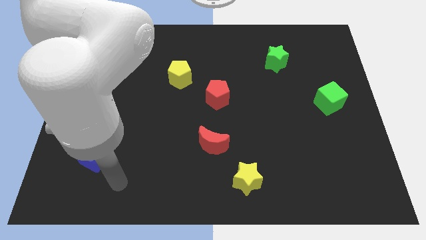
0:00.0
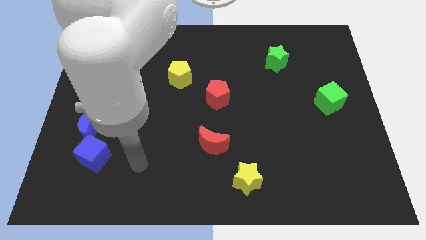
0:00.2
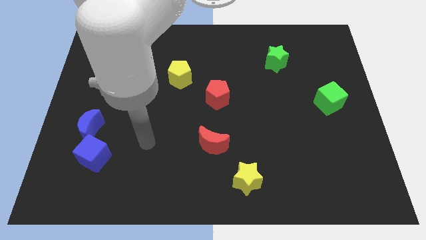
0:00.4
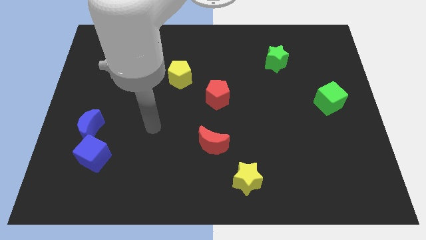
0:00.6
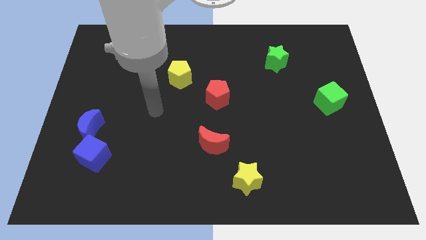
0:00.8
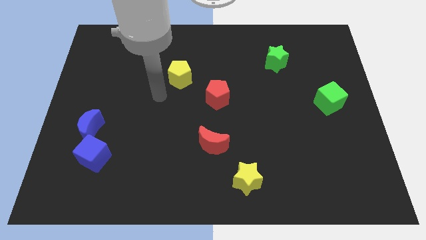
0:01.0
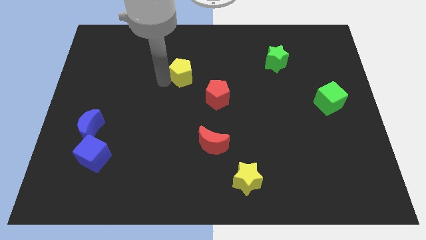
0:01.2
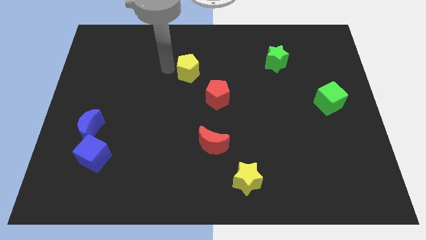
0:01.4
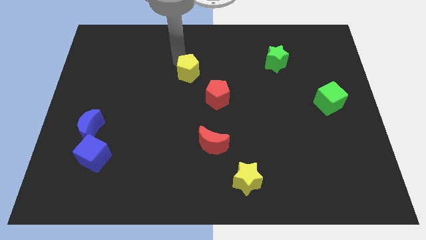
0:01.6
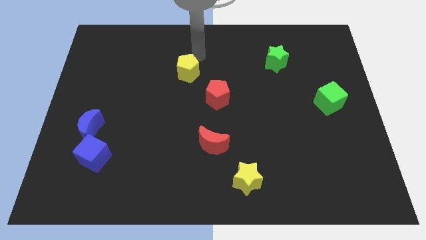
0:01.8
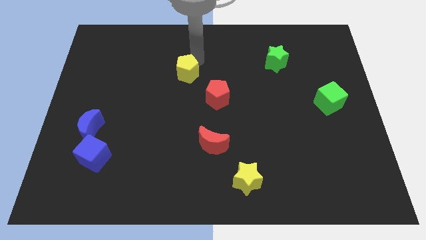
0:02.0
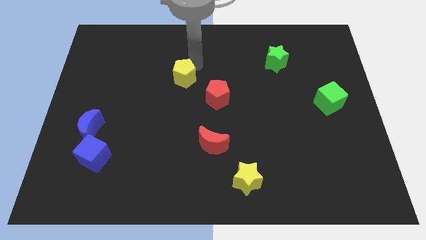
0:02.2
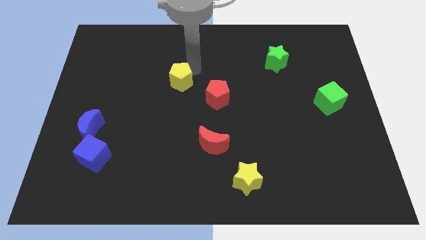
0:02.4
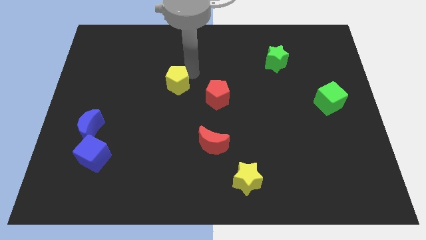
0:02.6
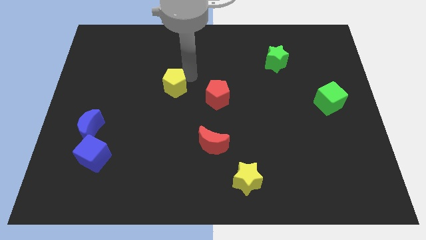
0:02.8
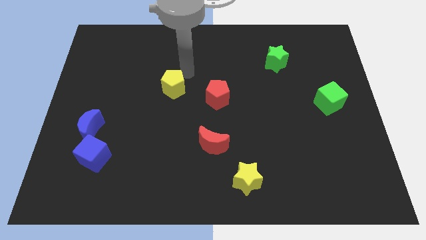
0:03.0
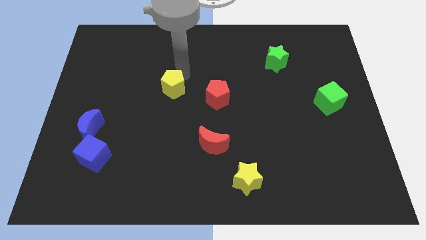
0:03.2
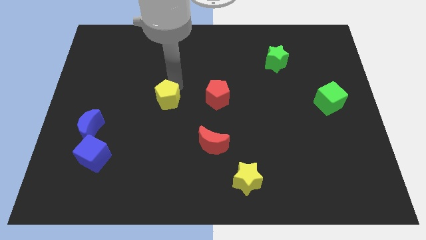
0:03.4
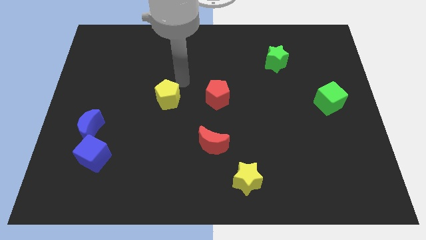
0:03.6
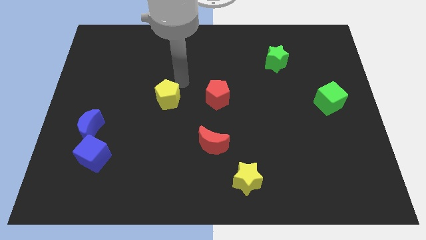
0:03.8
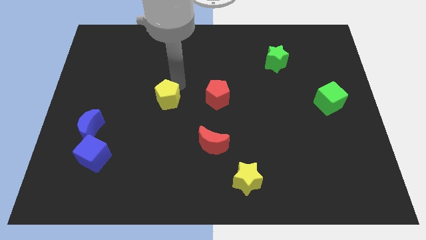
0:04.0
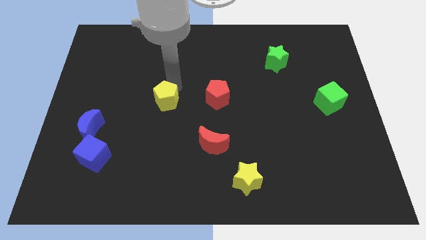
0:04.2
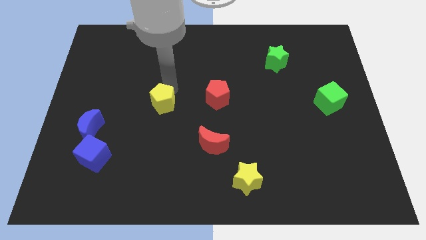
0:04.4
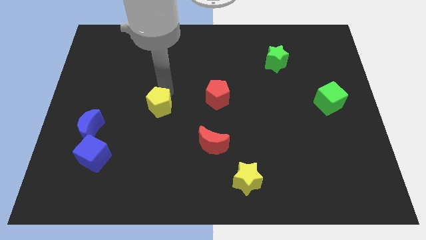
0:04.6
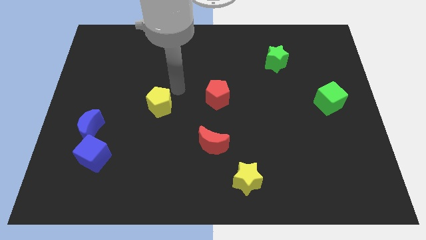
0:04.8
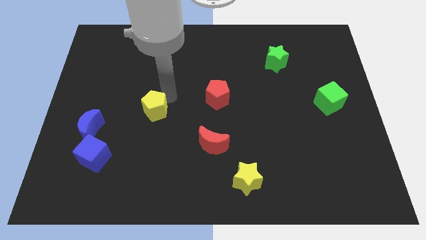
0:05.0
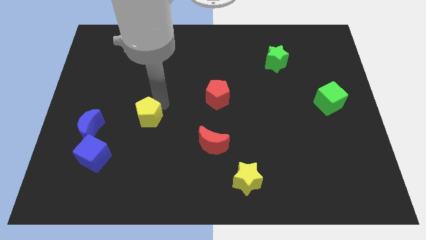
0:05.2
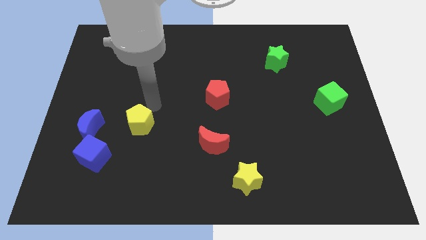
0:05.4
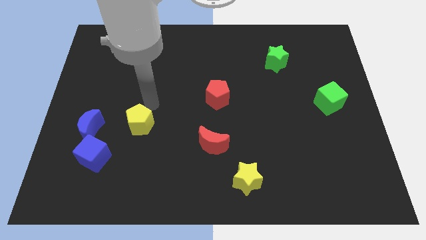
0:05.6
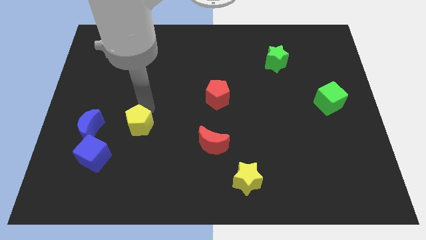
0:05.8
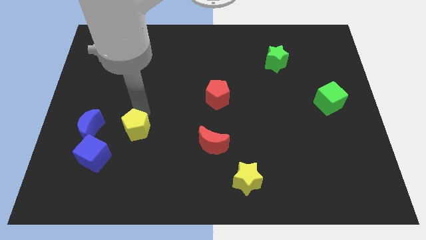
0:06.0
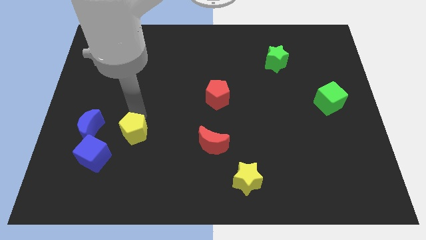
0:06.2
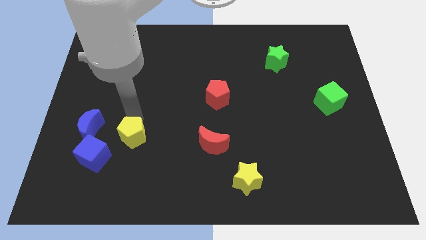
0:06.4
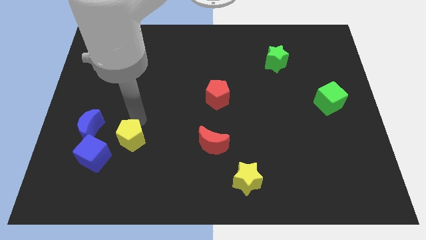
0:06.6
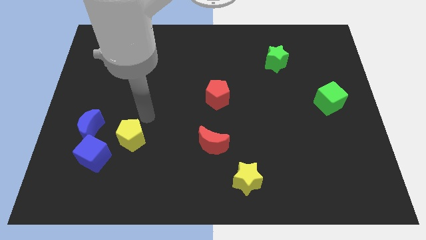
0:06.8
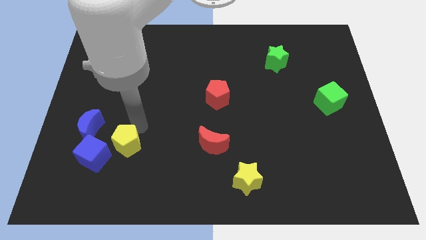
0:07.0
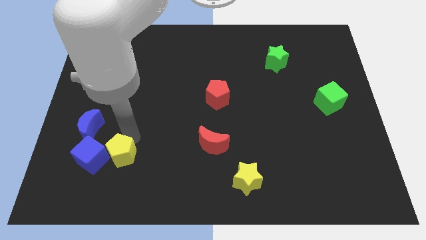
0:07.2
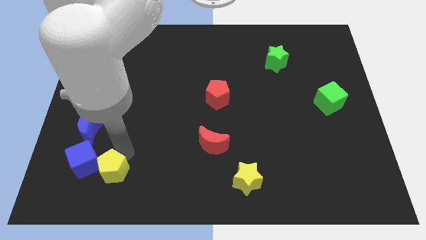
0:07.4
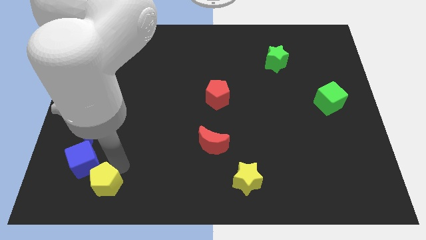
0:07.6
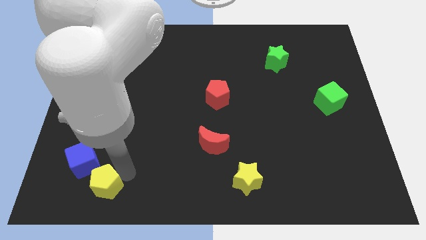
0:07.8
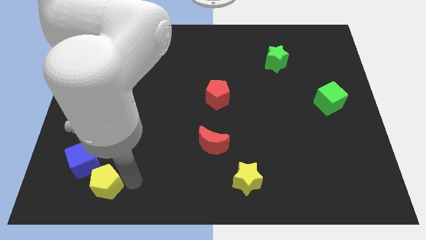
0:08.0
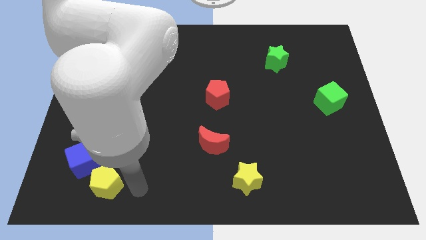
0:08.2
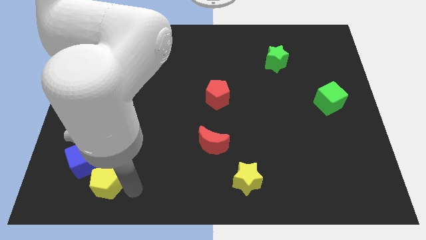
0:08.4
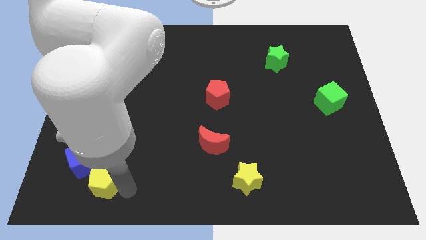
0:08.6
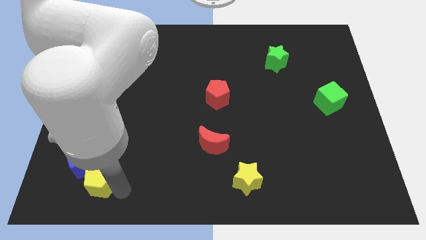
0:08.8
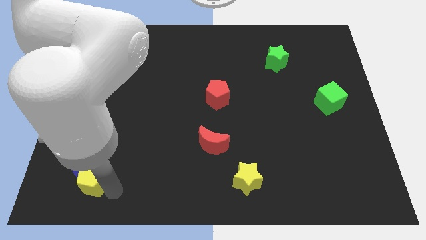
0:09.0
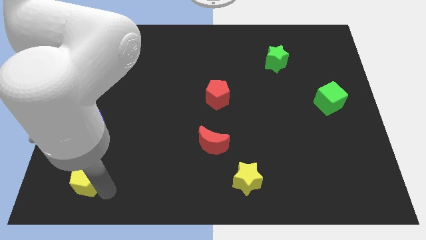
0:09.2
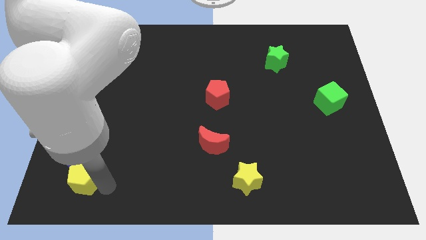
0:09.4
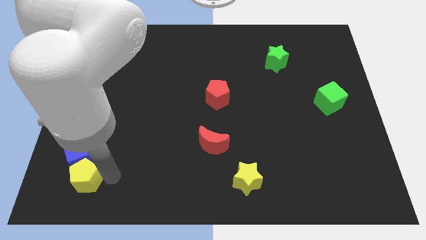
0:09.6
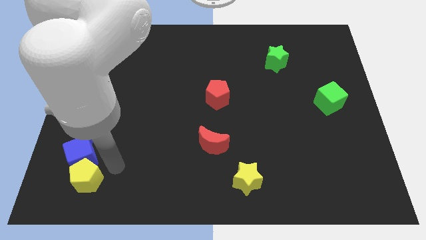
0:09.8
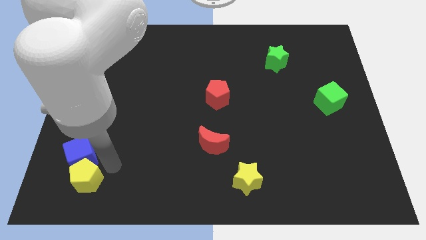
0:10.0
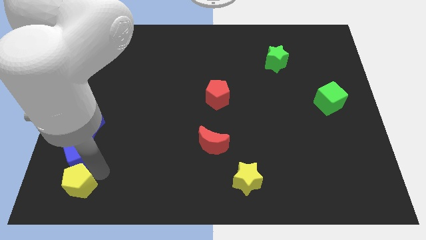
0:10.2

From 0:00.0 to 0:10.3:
move the yellow pentagon to the bottom left

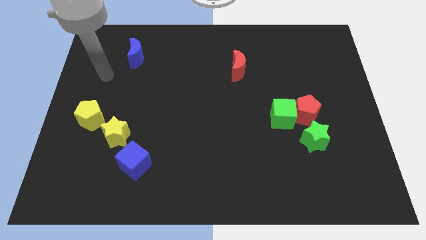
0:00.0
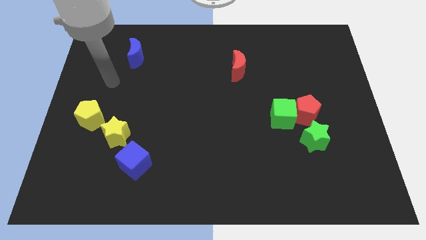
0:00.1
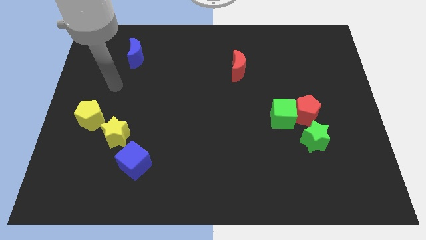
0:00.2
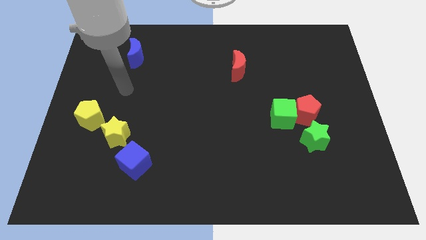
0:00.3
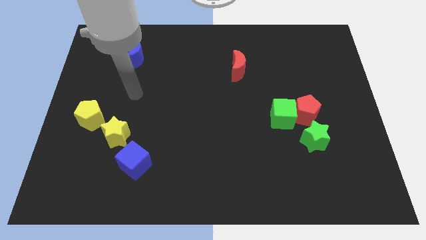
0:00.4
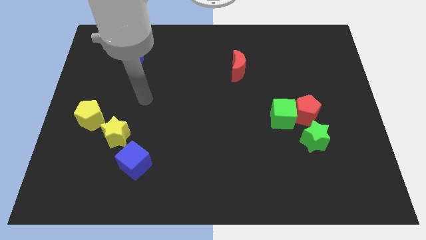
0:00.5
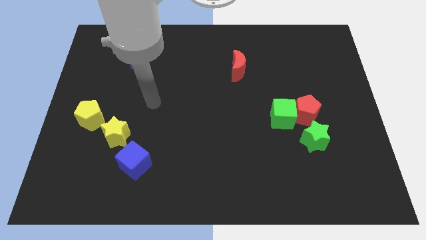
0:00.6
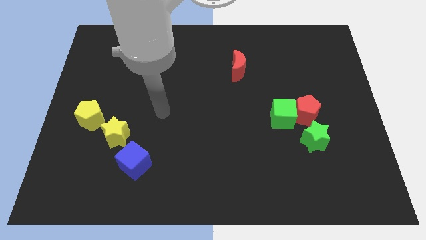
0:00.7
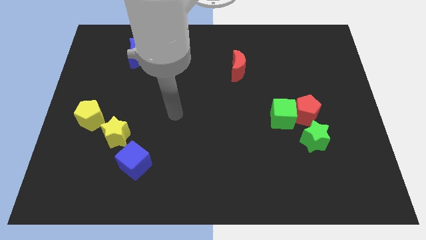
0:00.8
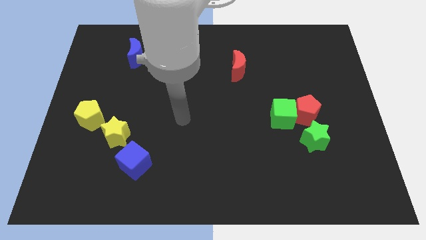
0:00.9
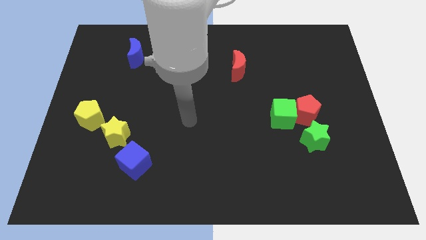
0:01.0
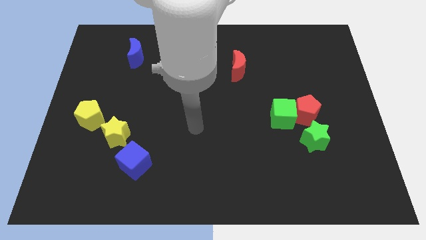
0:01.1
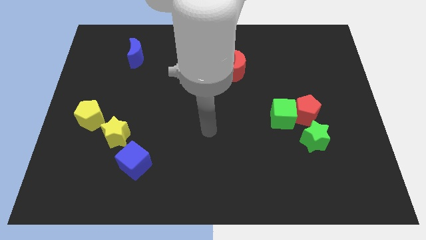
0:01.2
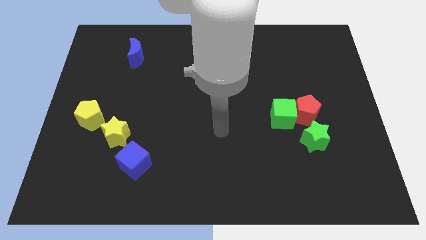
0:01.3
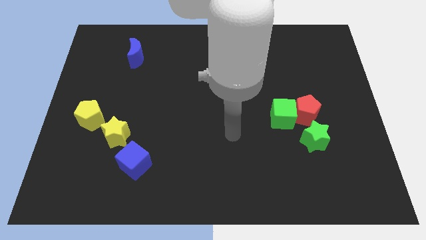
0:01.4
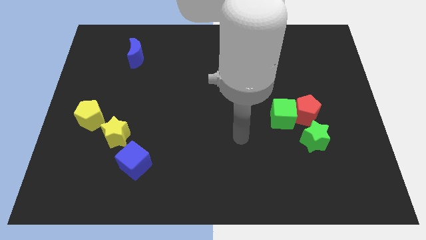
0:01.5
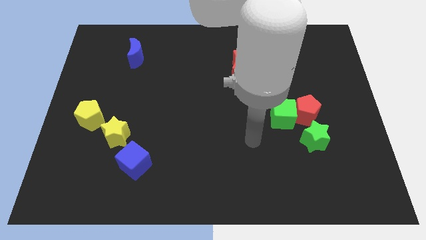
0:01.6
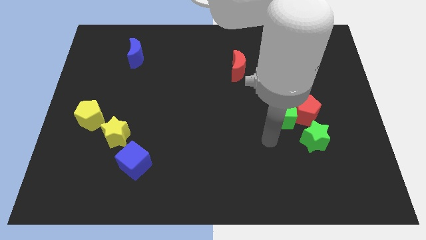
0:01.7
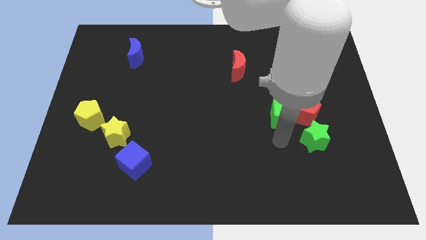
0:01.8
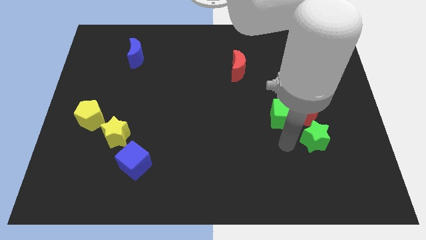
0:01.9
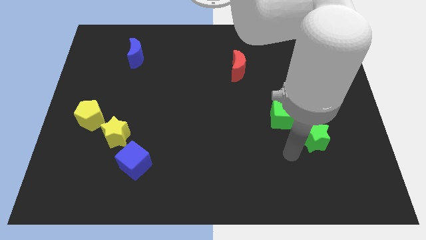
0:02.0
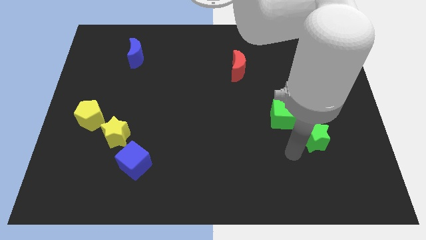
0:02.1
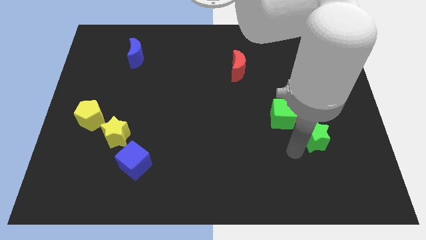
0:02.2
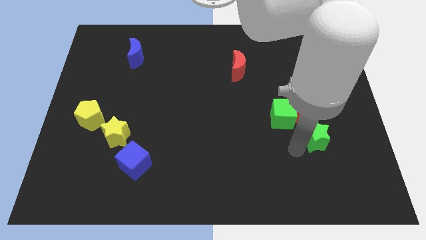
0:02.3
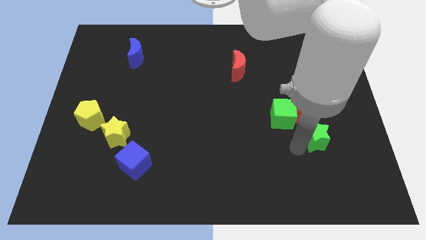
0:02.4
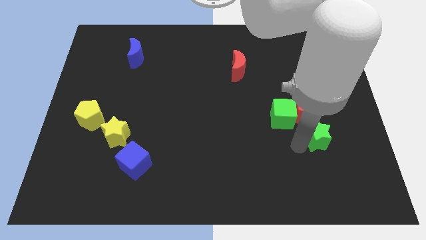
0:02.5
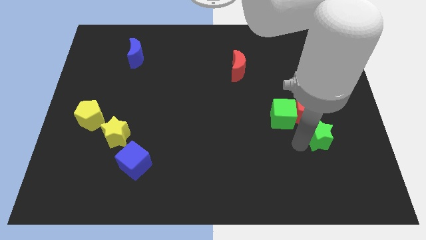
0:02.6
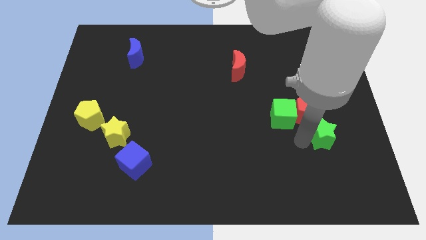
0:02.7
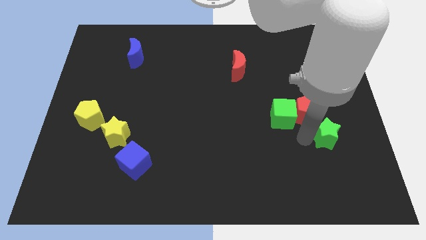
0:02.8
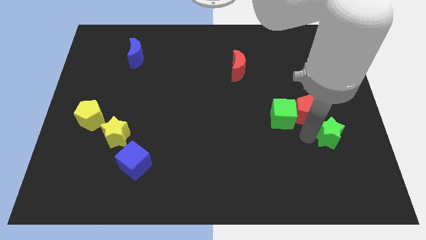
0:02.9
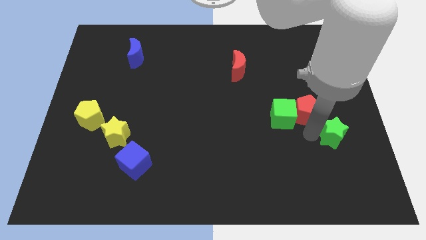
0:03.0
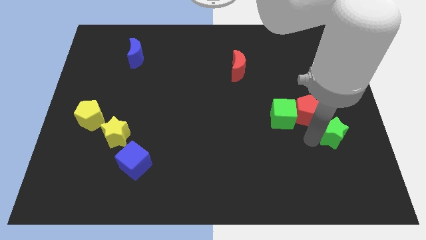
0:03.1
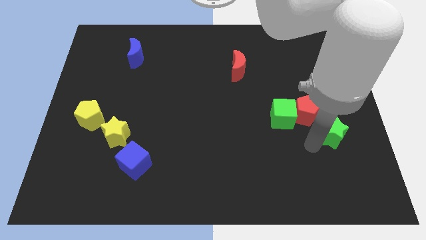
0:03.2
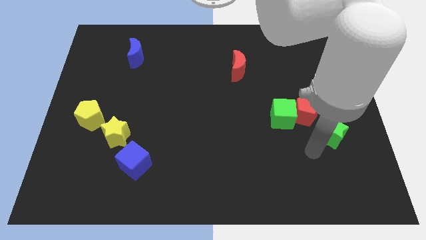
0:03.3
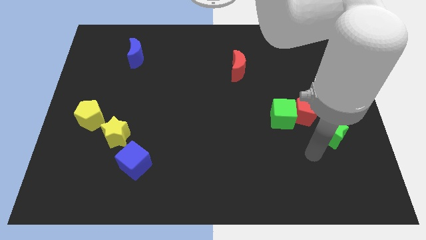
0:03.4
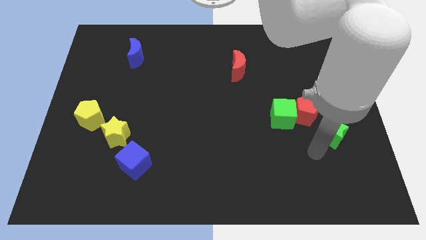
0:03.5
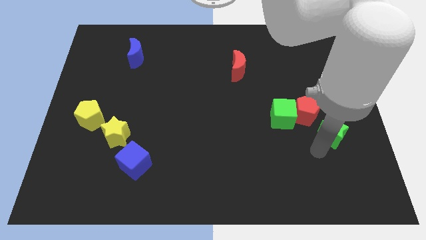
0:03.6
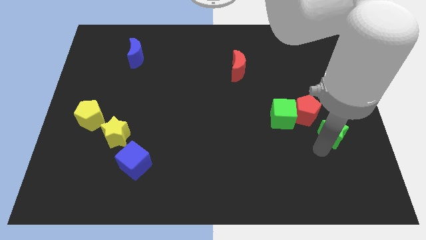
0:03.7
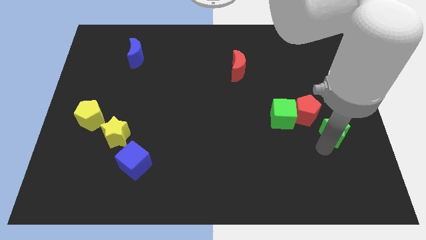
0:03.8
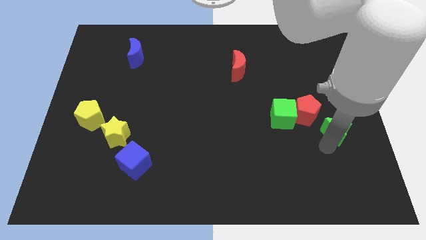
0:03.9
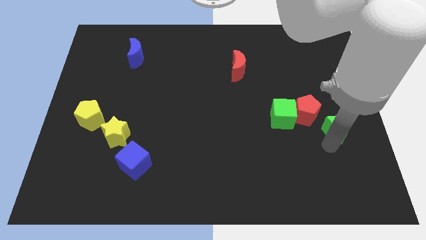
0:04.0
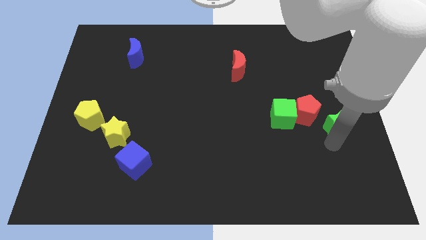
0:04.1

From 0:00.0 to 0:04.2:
push the green star to the center right
